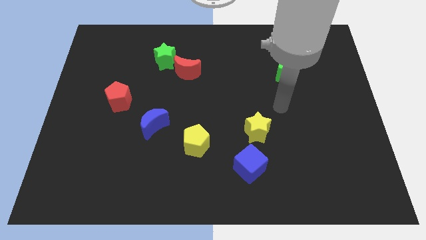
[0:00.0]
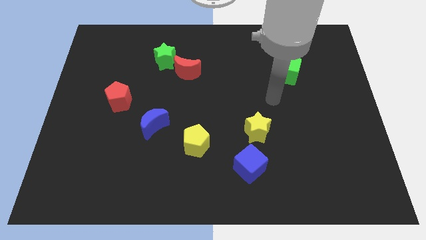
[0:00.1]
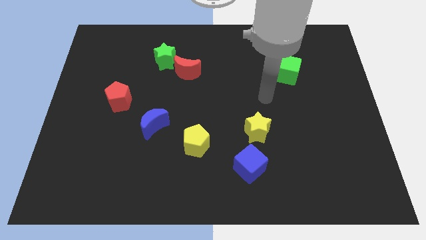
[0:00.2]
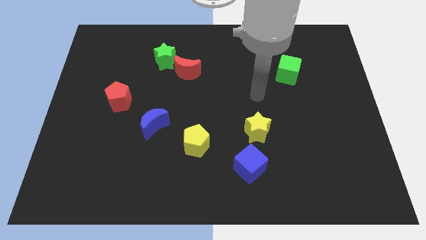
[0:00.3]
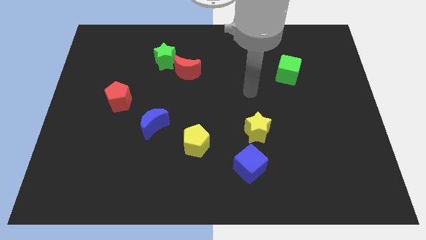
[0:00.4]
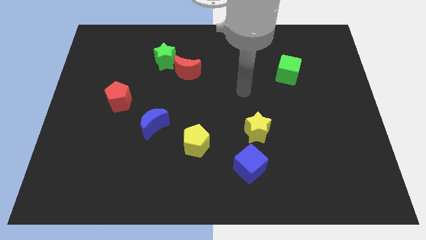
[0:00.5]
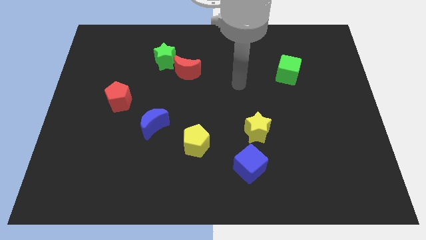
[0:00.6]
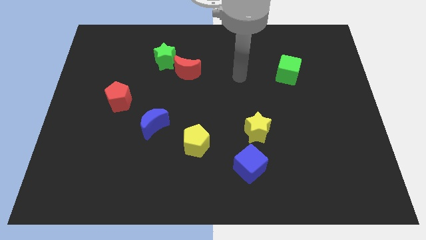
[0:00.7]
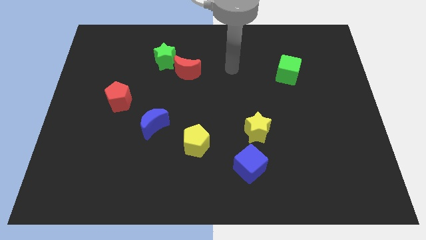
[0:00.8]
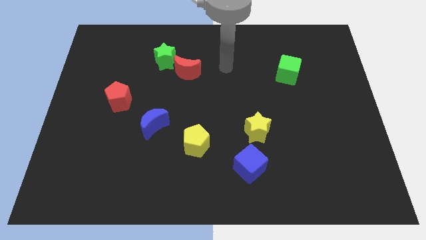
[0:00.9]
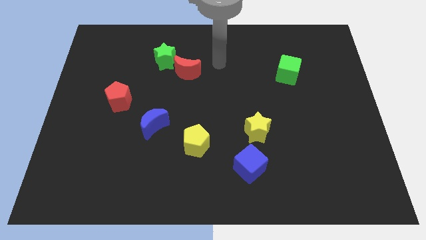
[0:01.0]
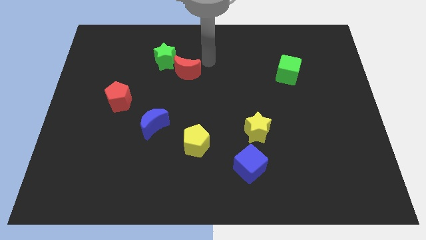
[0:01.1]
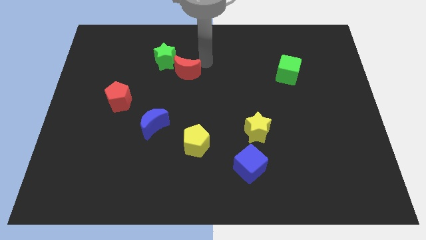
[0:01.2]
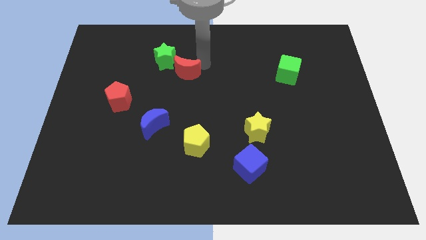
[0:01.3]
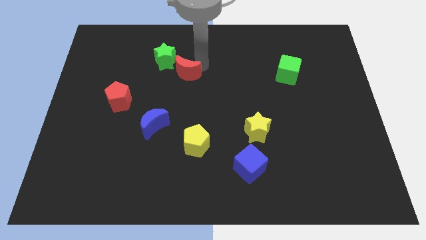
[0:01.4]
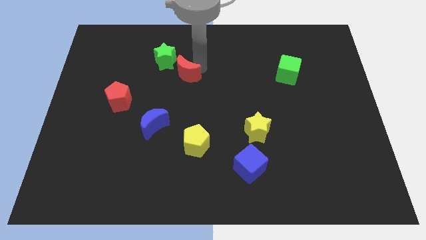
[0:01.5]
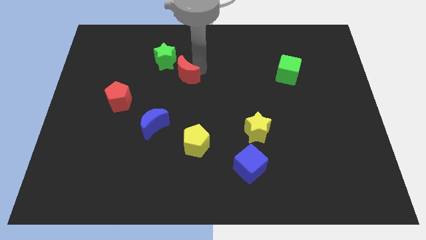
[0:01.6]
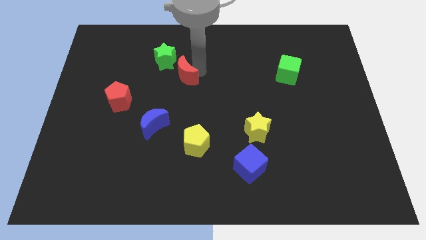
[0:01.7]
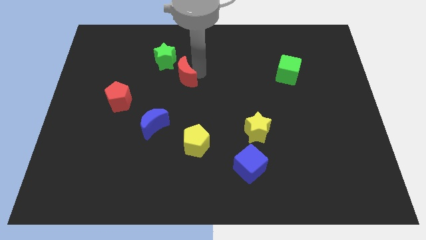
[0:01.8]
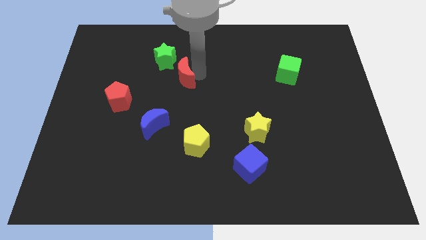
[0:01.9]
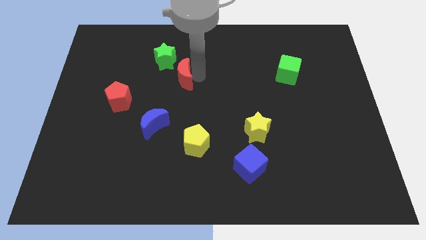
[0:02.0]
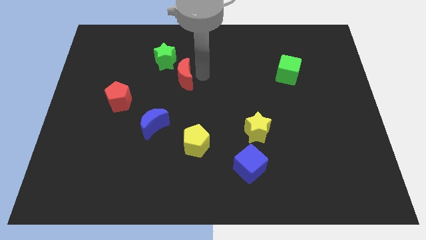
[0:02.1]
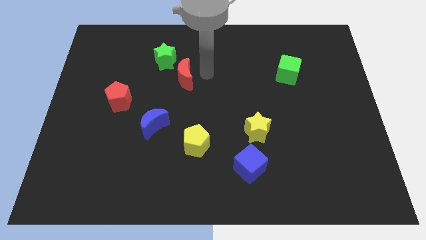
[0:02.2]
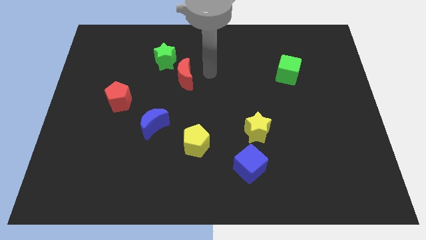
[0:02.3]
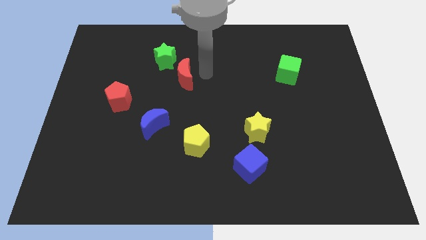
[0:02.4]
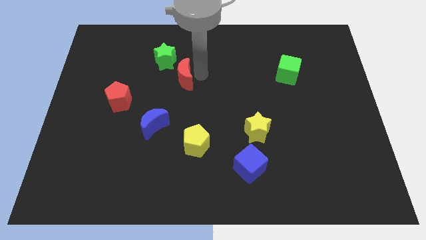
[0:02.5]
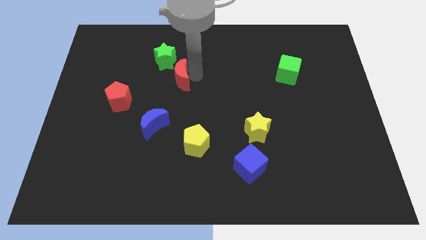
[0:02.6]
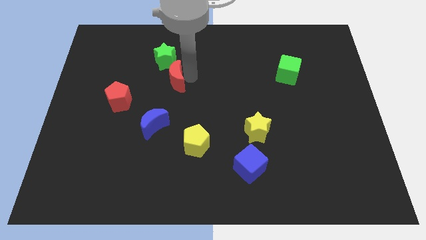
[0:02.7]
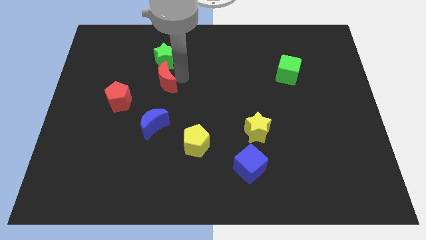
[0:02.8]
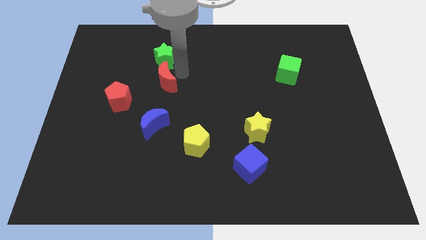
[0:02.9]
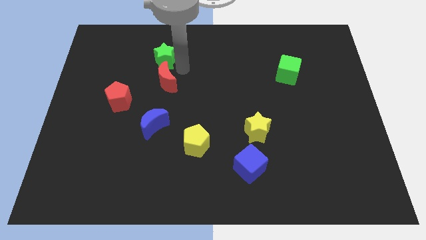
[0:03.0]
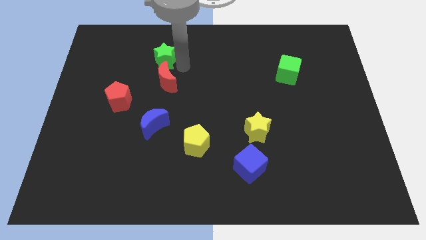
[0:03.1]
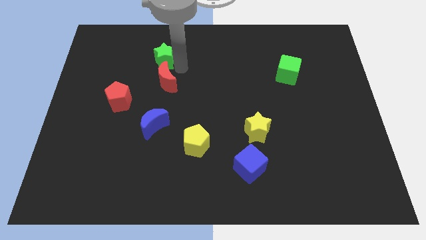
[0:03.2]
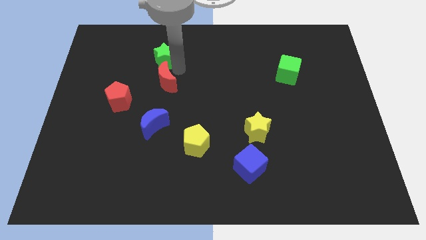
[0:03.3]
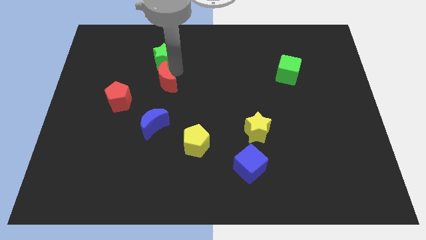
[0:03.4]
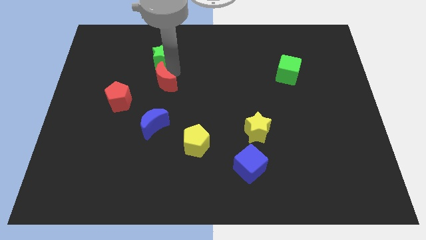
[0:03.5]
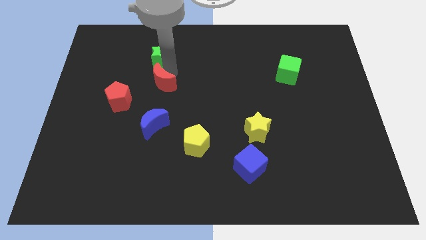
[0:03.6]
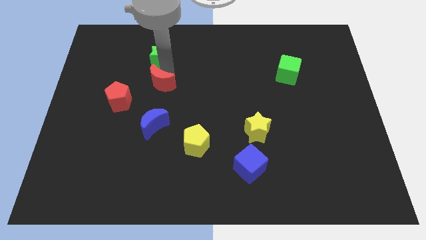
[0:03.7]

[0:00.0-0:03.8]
slide the red moon a little diagonally downwards and left

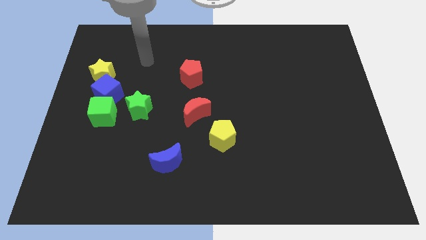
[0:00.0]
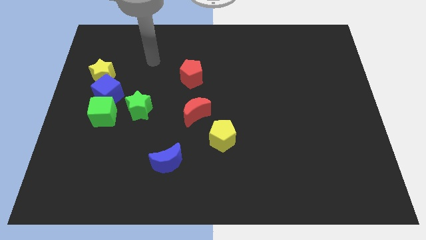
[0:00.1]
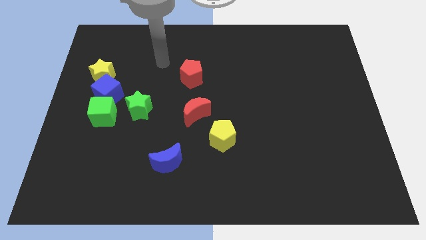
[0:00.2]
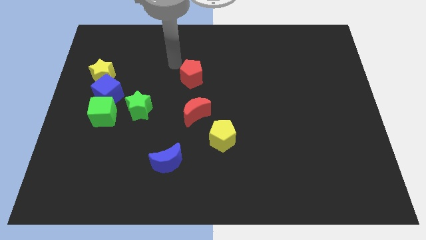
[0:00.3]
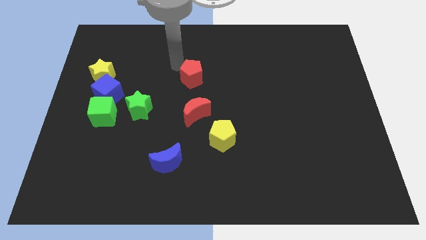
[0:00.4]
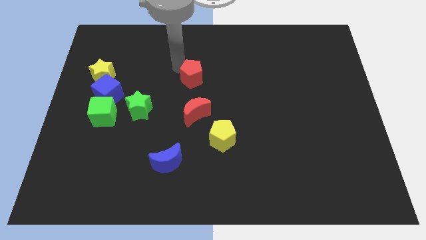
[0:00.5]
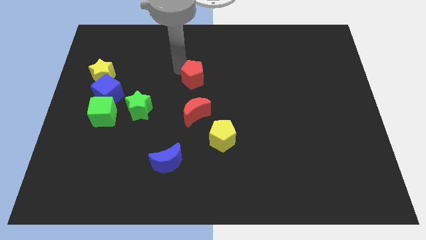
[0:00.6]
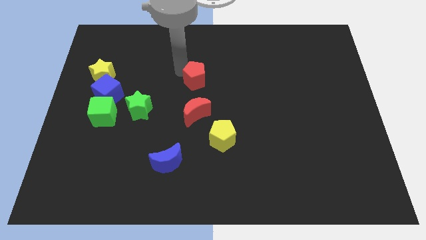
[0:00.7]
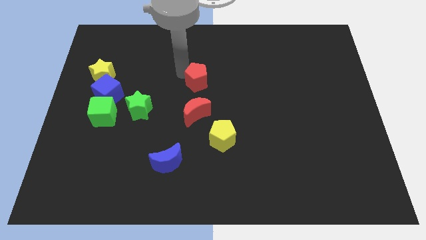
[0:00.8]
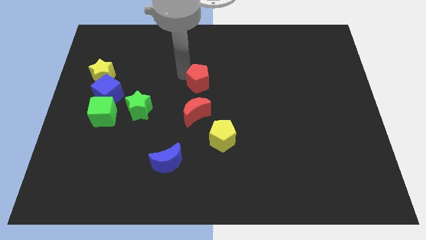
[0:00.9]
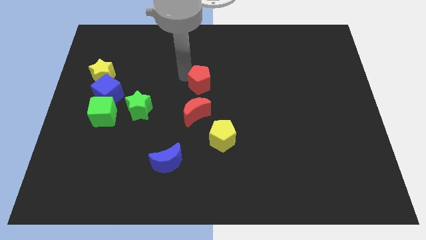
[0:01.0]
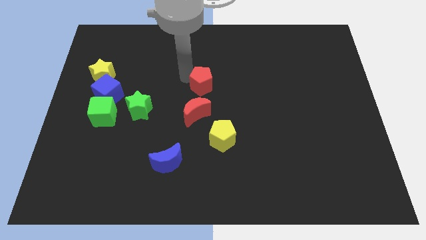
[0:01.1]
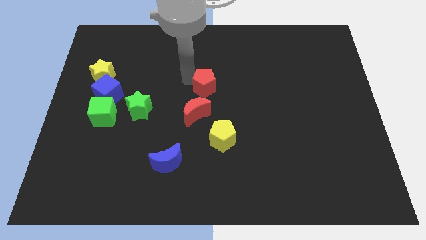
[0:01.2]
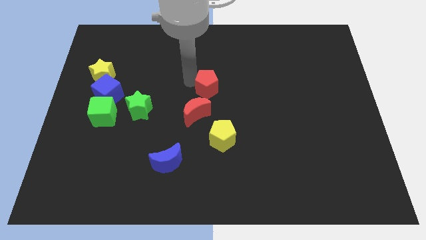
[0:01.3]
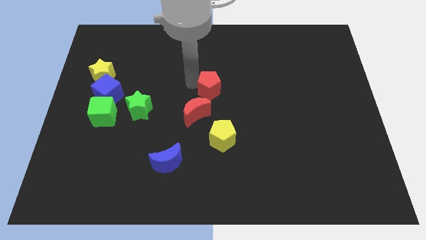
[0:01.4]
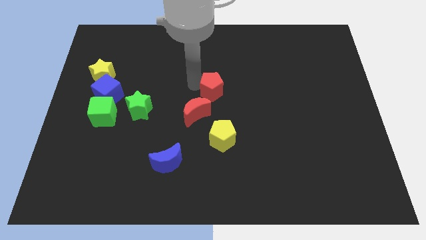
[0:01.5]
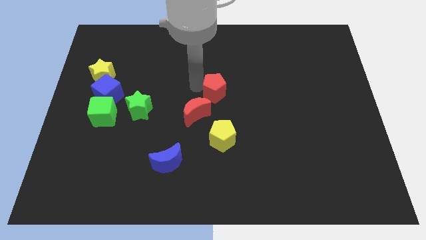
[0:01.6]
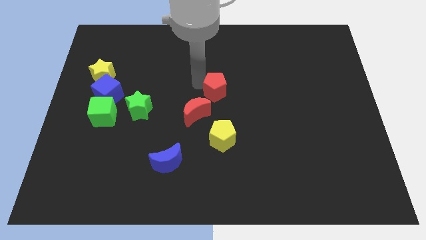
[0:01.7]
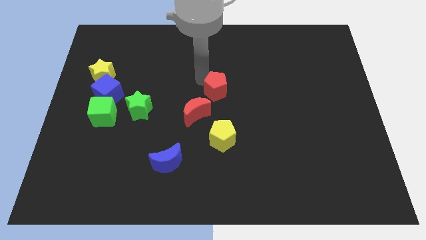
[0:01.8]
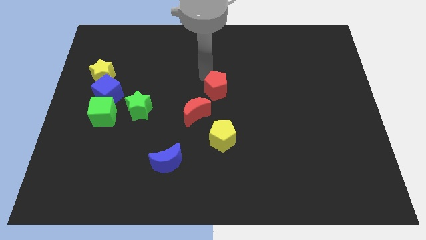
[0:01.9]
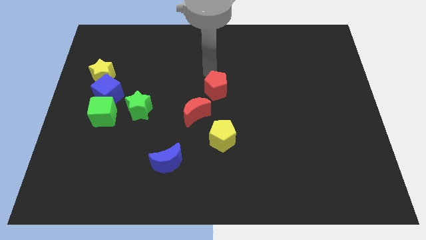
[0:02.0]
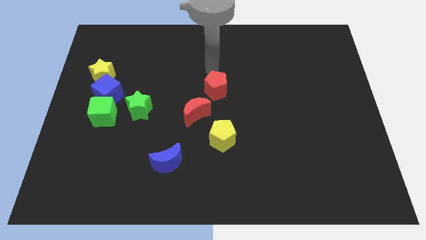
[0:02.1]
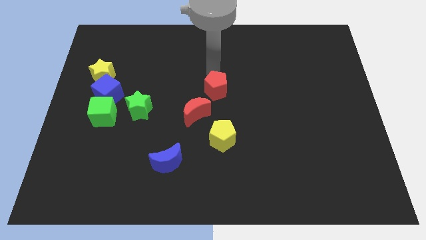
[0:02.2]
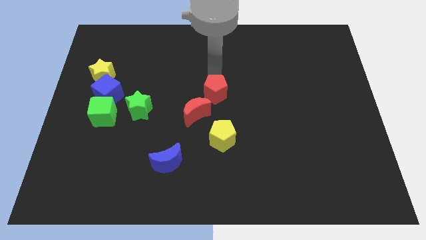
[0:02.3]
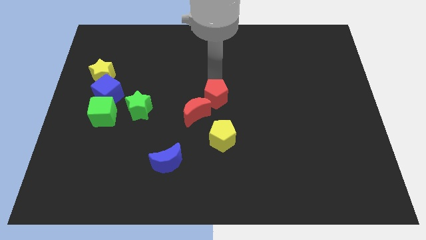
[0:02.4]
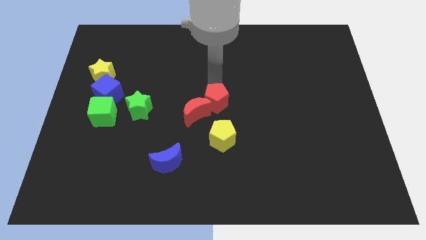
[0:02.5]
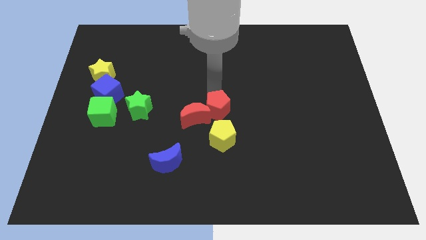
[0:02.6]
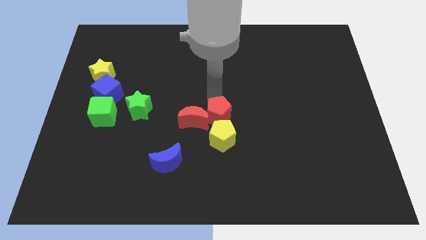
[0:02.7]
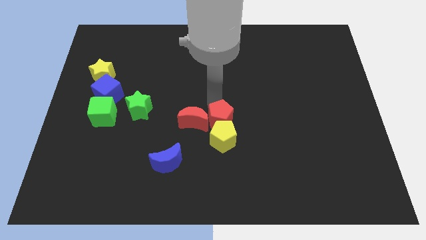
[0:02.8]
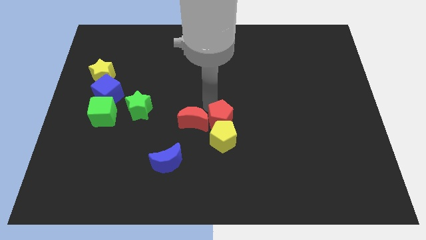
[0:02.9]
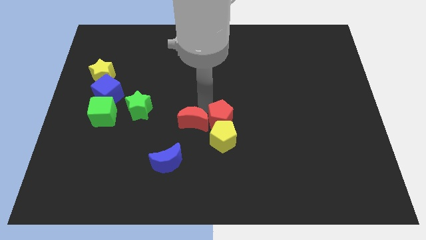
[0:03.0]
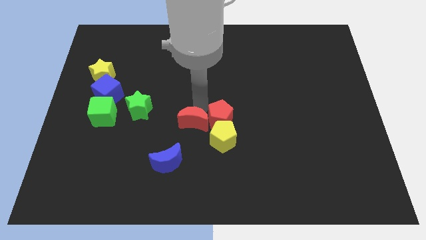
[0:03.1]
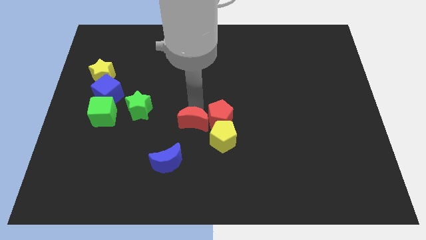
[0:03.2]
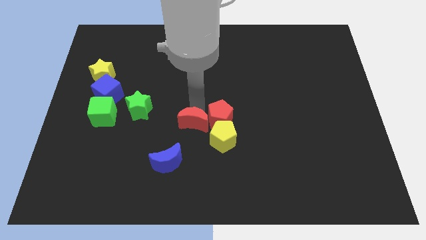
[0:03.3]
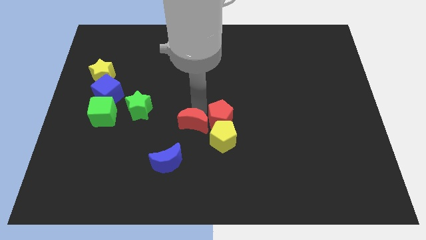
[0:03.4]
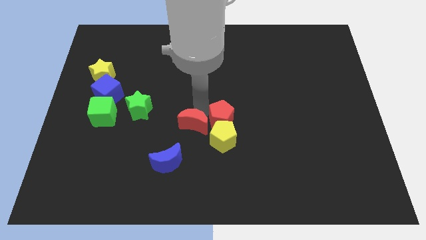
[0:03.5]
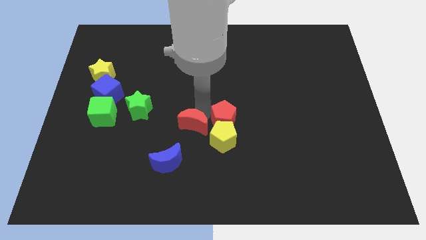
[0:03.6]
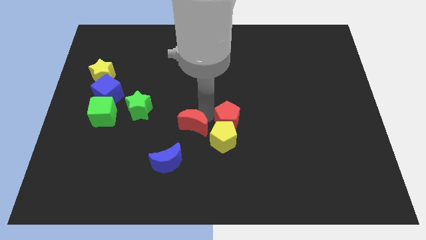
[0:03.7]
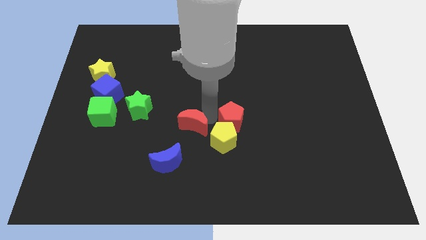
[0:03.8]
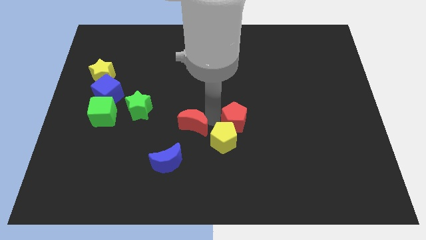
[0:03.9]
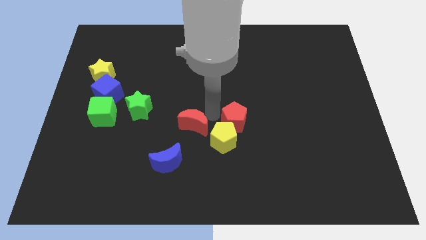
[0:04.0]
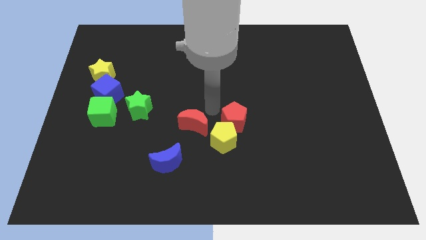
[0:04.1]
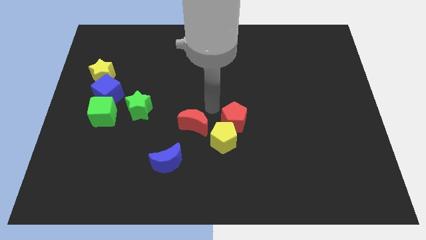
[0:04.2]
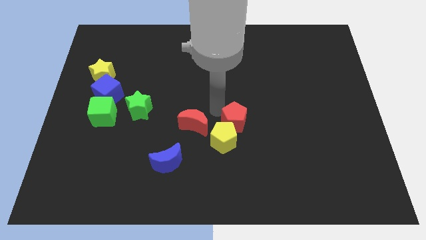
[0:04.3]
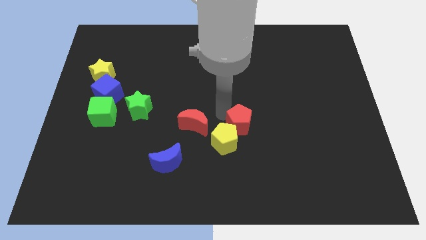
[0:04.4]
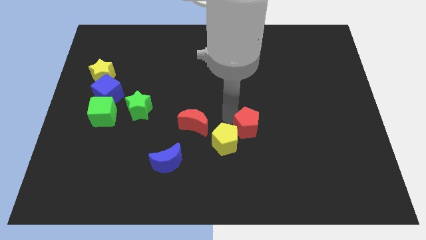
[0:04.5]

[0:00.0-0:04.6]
slide the red pentagon down and then right
